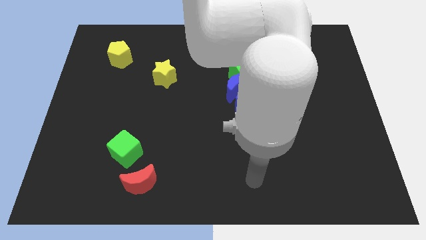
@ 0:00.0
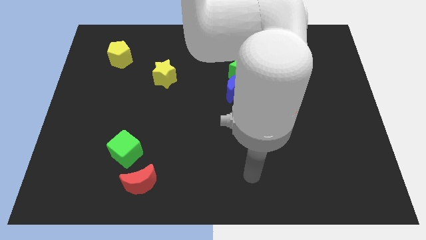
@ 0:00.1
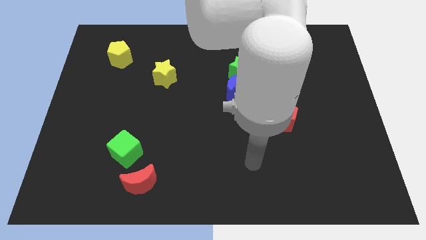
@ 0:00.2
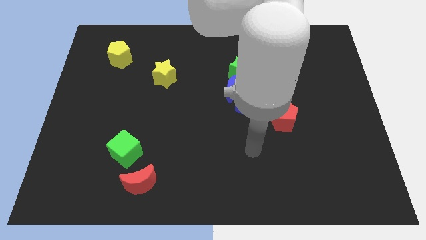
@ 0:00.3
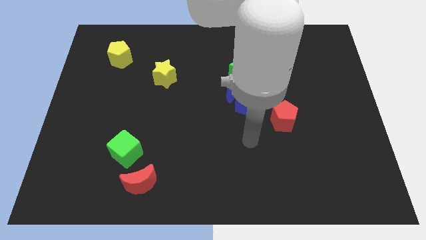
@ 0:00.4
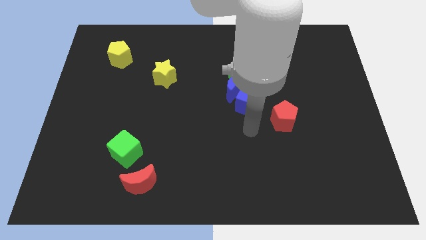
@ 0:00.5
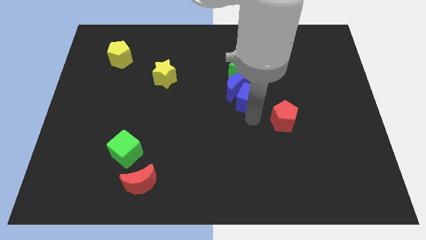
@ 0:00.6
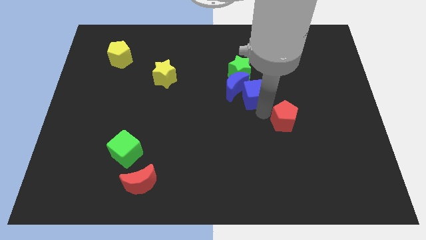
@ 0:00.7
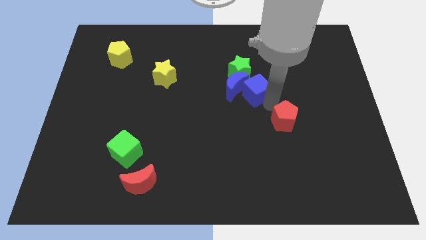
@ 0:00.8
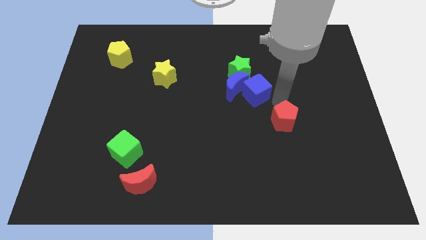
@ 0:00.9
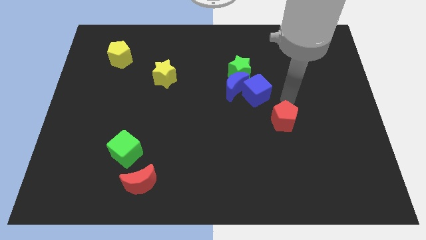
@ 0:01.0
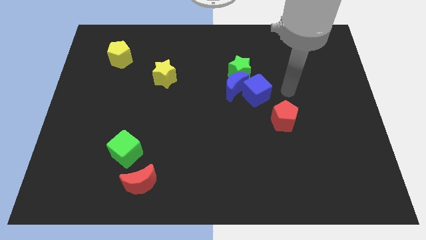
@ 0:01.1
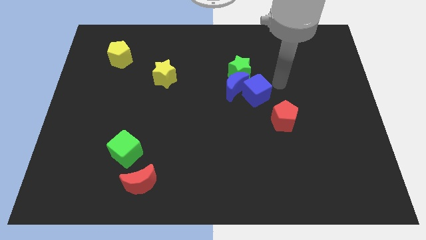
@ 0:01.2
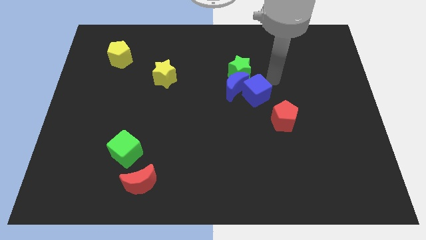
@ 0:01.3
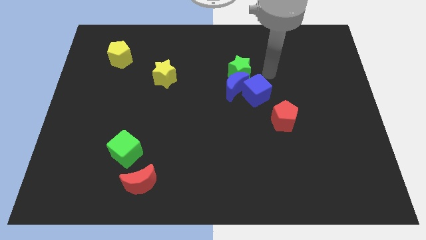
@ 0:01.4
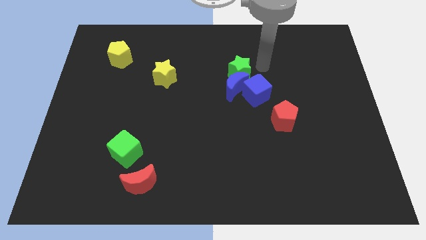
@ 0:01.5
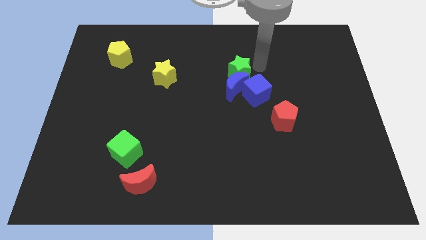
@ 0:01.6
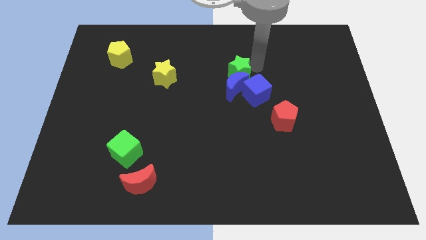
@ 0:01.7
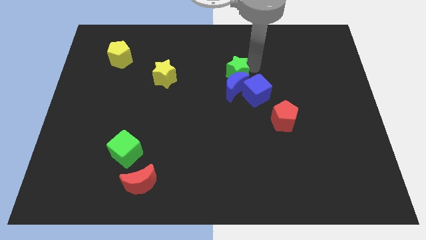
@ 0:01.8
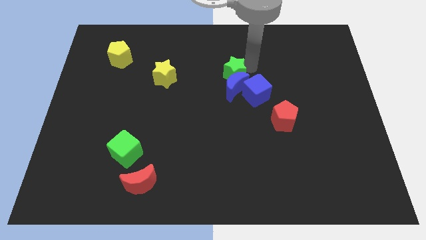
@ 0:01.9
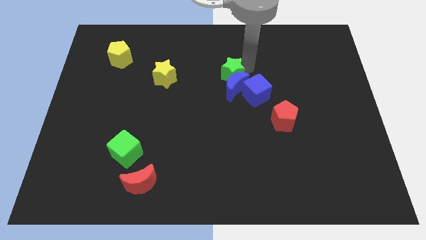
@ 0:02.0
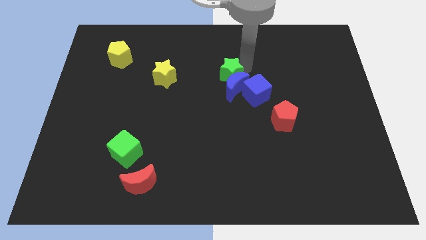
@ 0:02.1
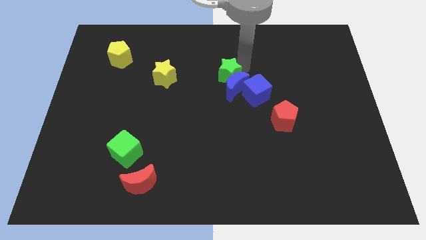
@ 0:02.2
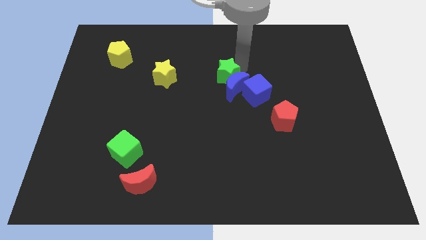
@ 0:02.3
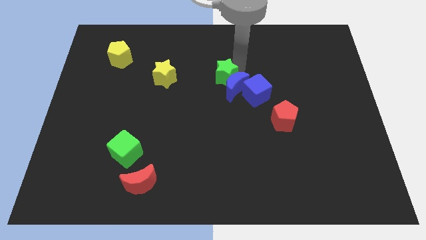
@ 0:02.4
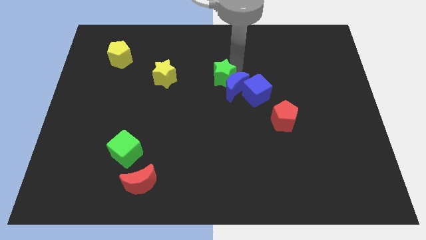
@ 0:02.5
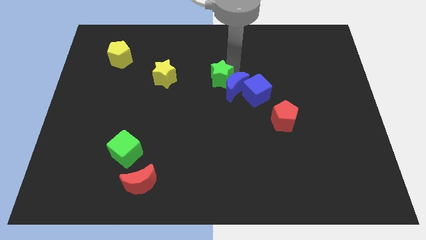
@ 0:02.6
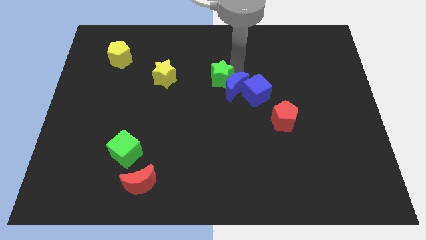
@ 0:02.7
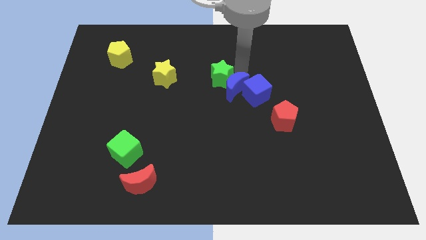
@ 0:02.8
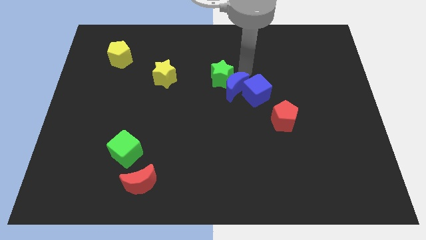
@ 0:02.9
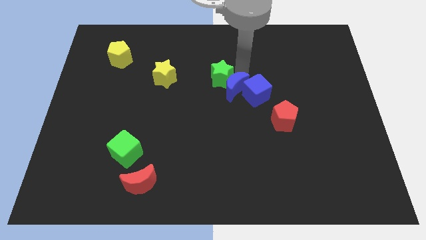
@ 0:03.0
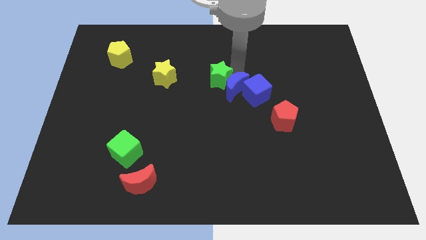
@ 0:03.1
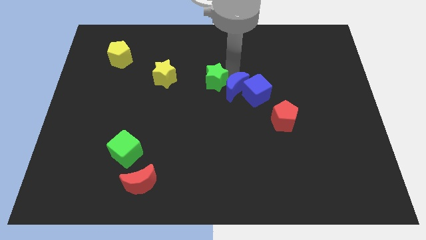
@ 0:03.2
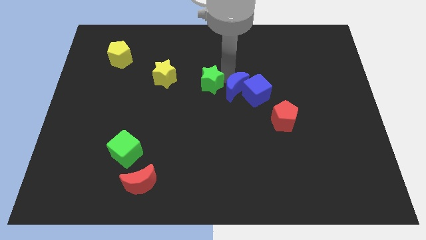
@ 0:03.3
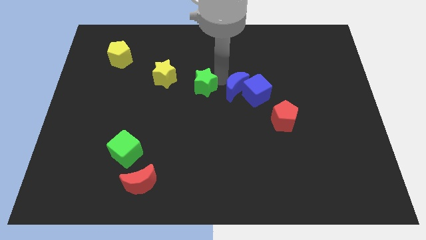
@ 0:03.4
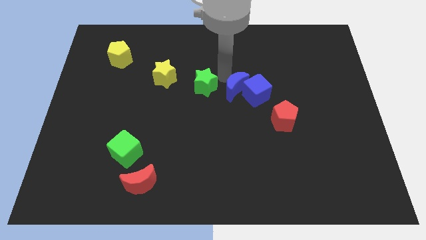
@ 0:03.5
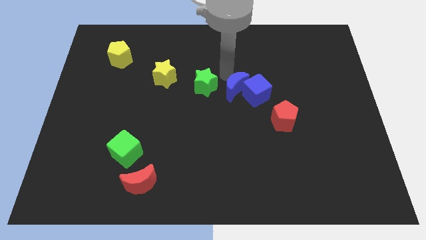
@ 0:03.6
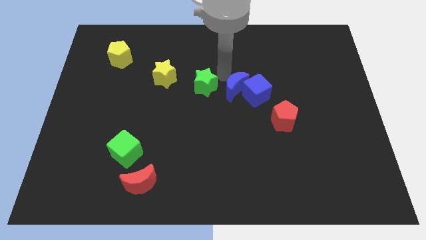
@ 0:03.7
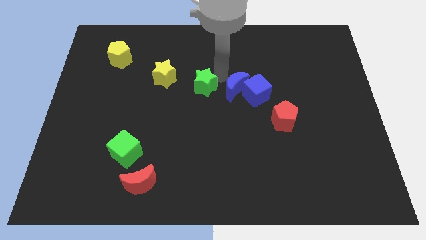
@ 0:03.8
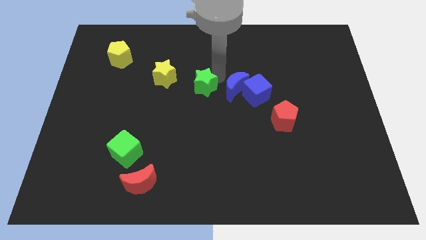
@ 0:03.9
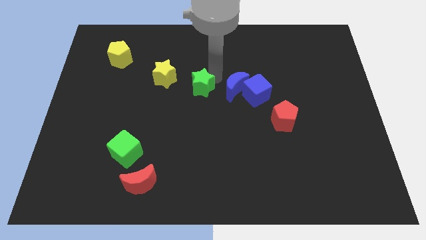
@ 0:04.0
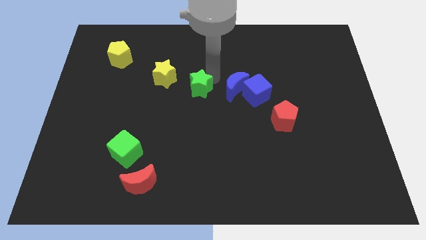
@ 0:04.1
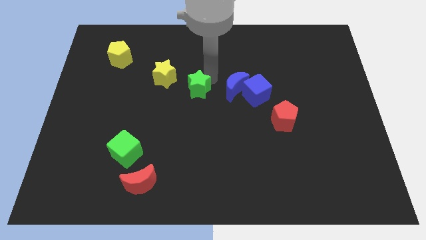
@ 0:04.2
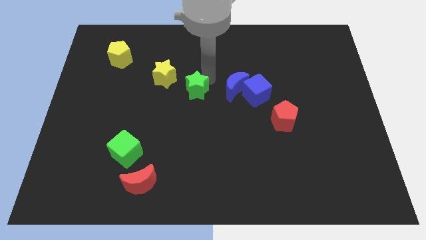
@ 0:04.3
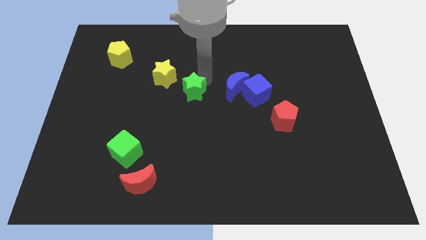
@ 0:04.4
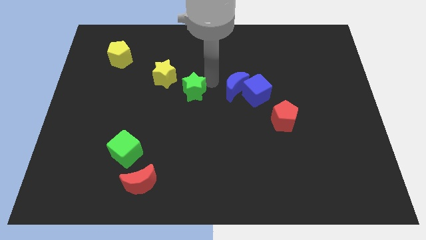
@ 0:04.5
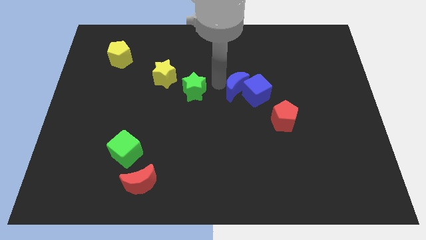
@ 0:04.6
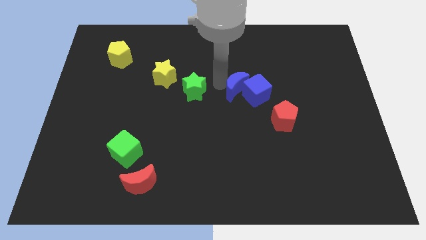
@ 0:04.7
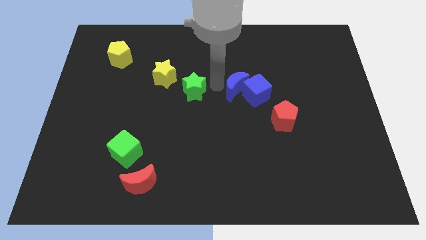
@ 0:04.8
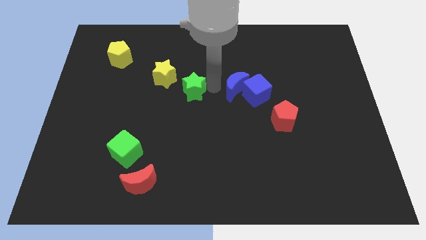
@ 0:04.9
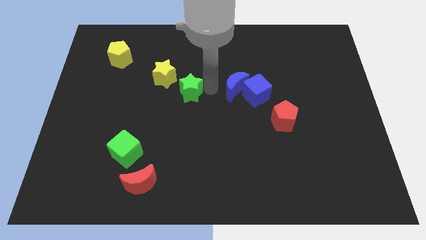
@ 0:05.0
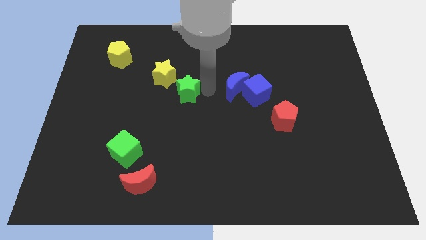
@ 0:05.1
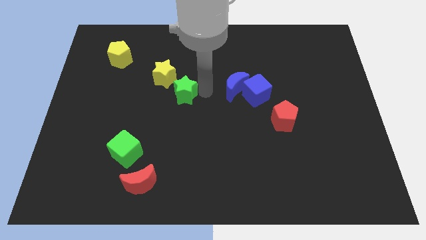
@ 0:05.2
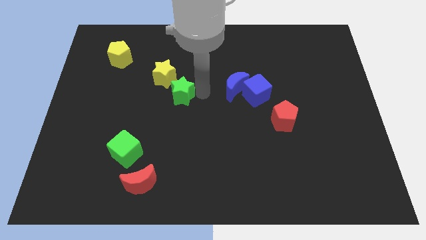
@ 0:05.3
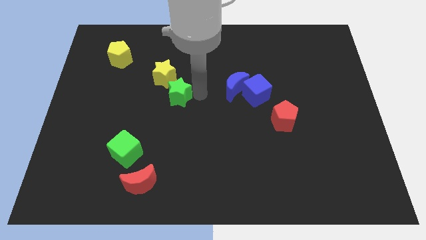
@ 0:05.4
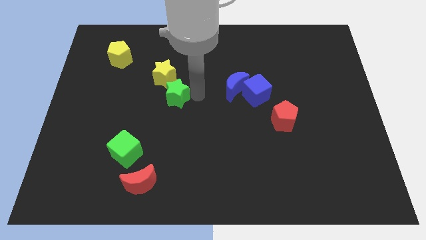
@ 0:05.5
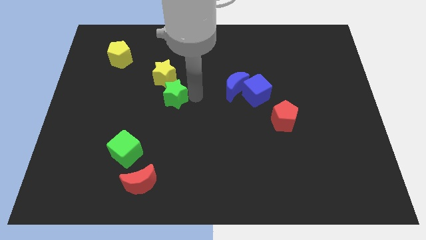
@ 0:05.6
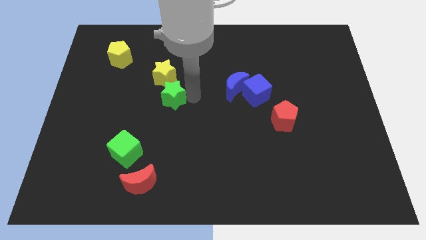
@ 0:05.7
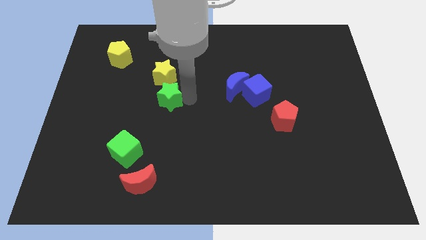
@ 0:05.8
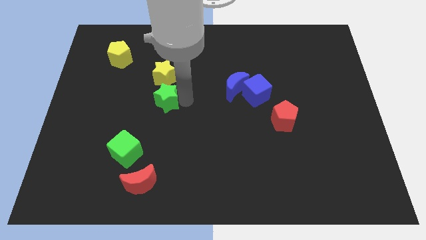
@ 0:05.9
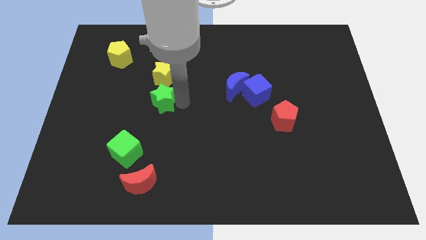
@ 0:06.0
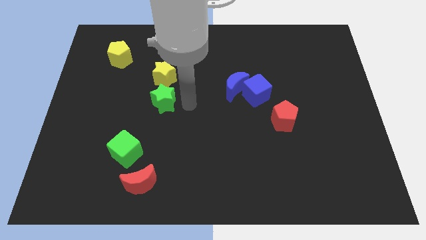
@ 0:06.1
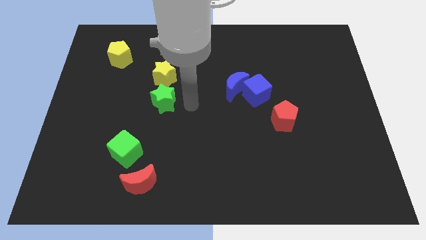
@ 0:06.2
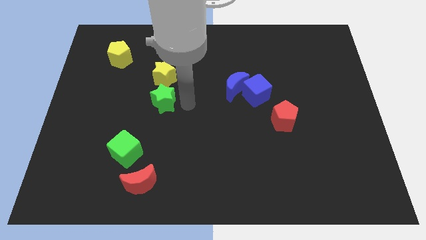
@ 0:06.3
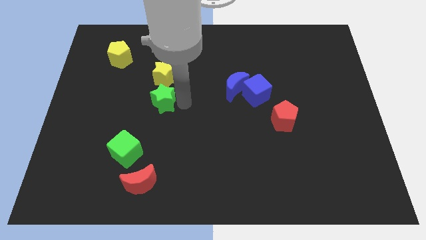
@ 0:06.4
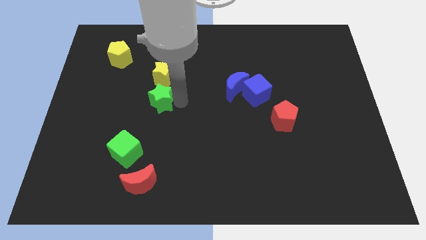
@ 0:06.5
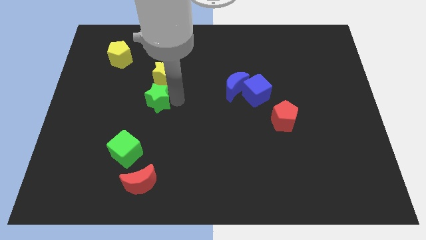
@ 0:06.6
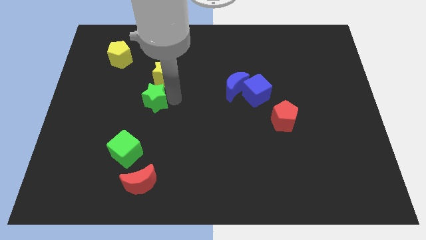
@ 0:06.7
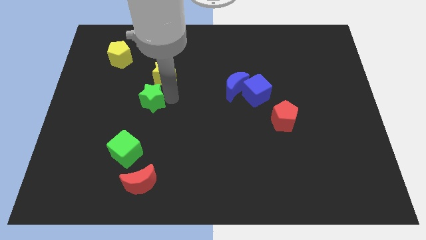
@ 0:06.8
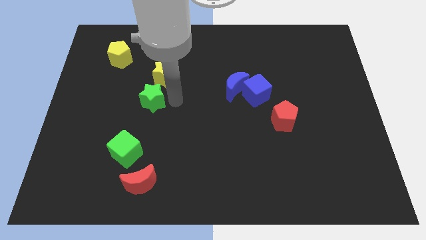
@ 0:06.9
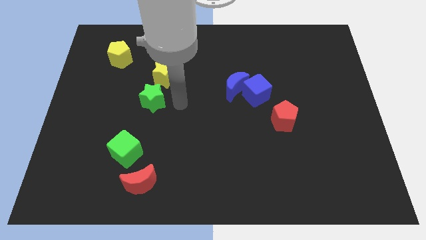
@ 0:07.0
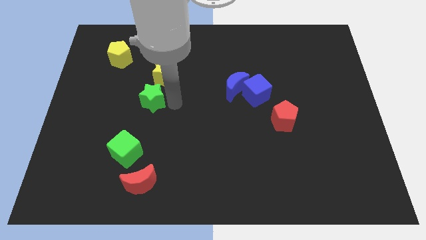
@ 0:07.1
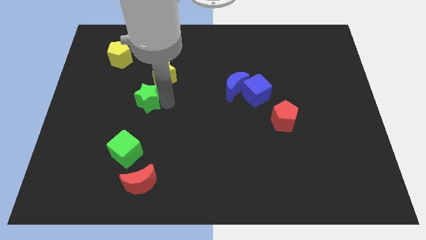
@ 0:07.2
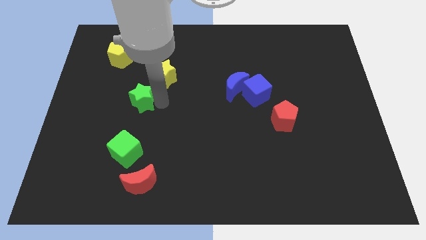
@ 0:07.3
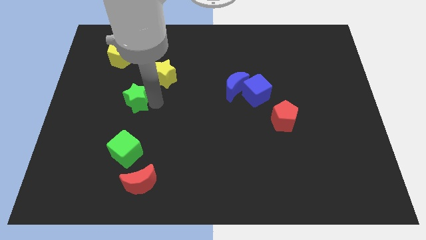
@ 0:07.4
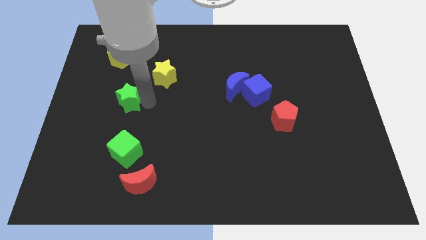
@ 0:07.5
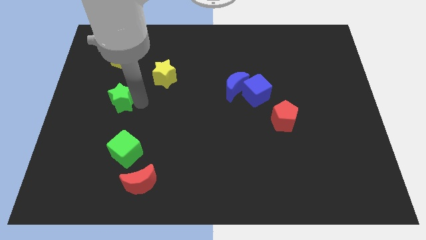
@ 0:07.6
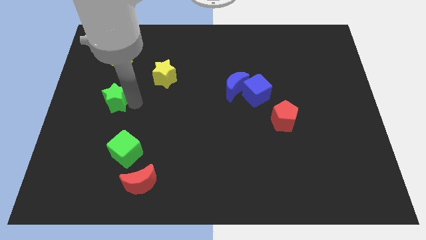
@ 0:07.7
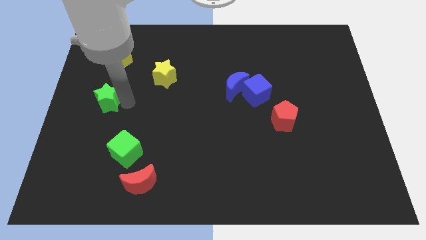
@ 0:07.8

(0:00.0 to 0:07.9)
put the green star to the center left
